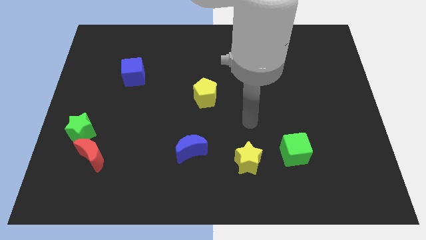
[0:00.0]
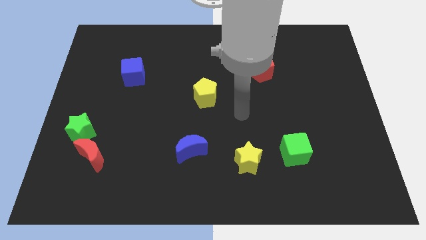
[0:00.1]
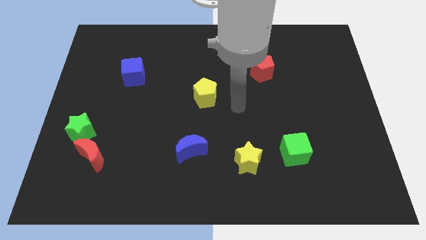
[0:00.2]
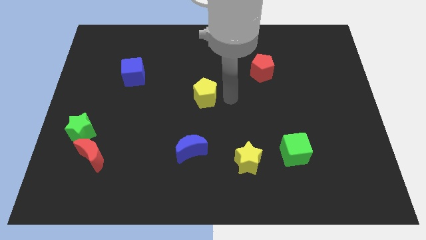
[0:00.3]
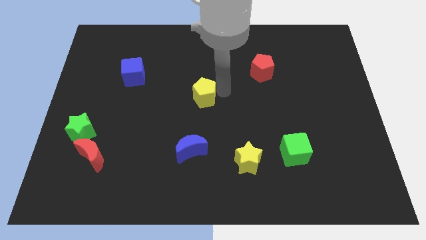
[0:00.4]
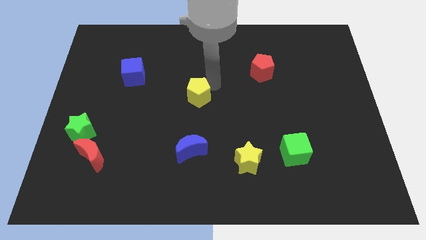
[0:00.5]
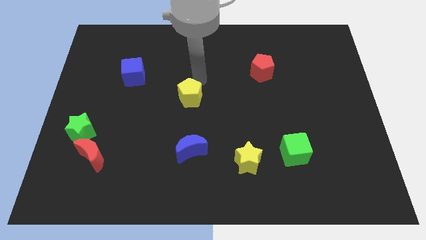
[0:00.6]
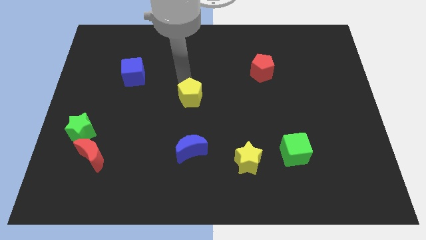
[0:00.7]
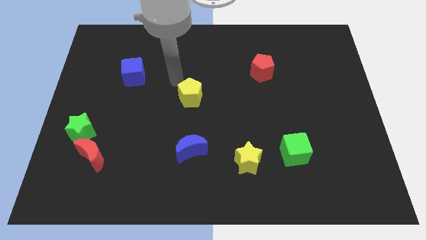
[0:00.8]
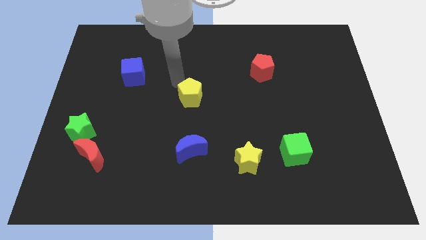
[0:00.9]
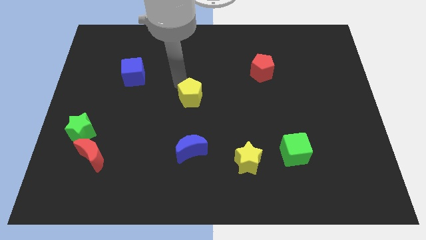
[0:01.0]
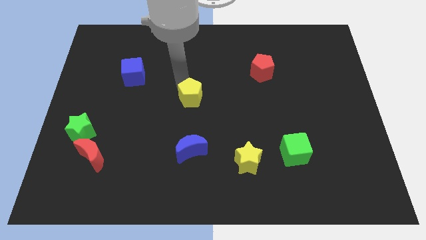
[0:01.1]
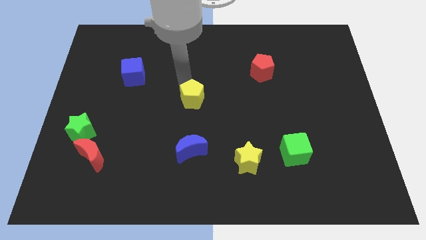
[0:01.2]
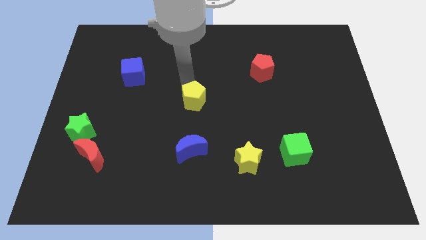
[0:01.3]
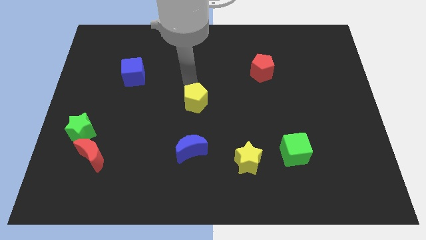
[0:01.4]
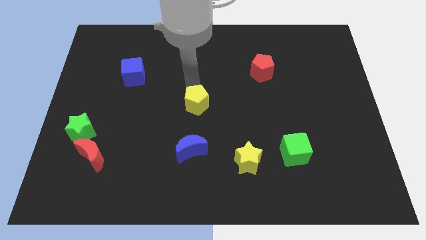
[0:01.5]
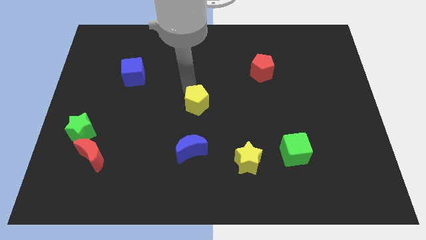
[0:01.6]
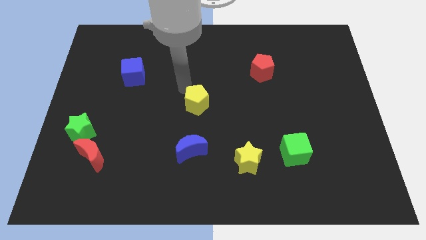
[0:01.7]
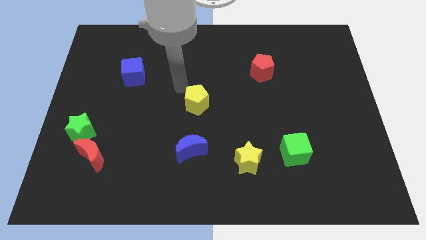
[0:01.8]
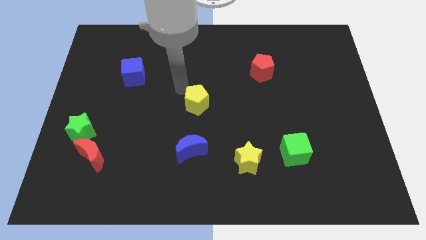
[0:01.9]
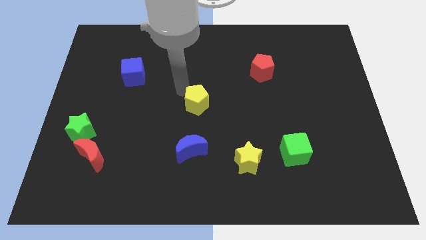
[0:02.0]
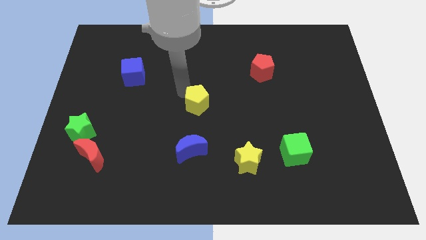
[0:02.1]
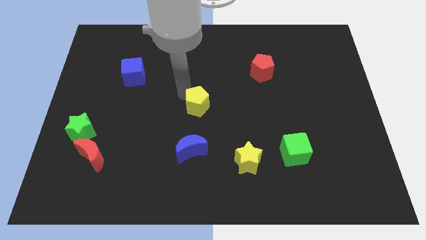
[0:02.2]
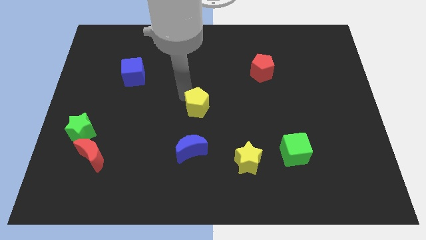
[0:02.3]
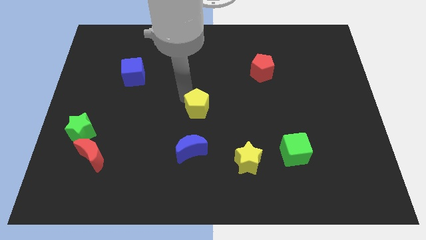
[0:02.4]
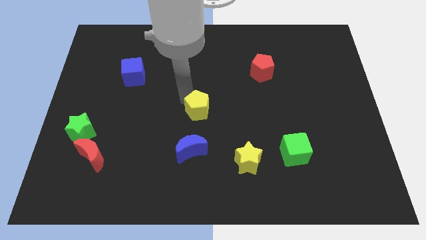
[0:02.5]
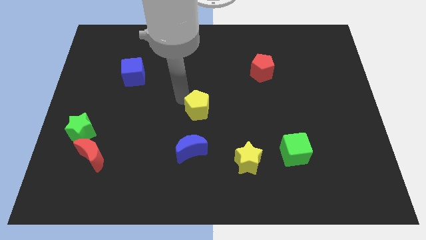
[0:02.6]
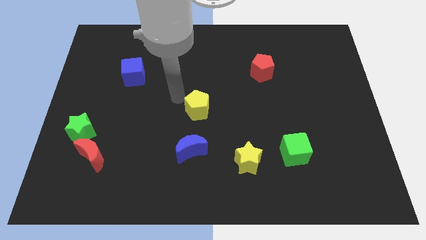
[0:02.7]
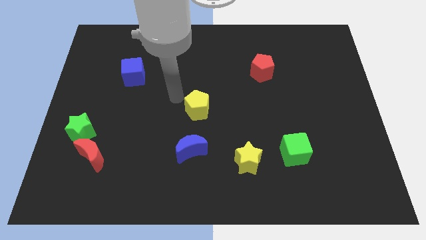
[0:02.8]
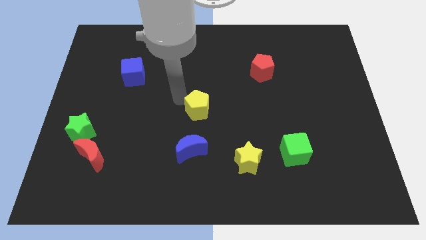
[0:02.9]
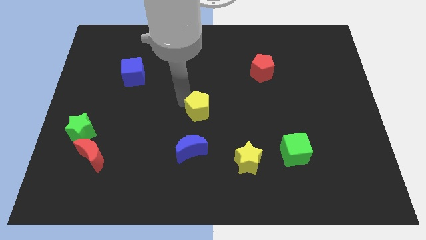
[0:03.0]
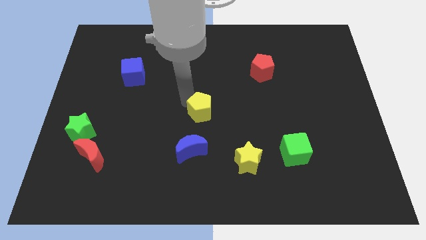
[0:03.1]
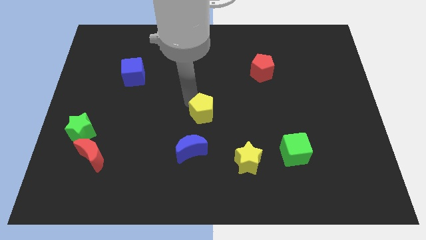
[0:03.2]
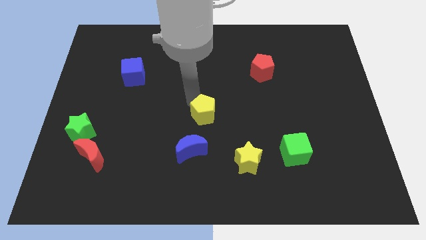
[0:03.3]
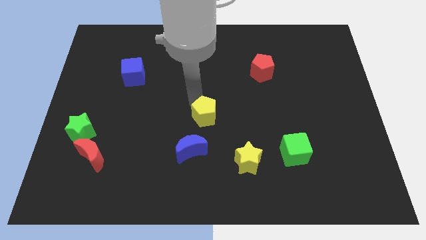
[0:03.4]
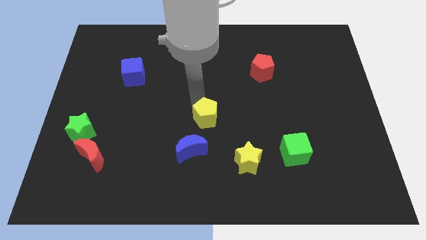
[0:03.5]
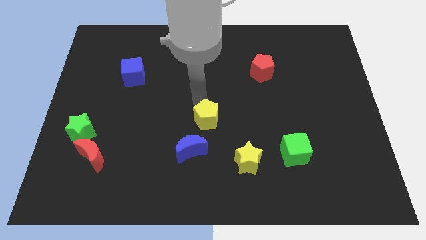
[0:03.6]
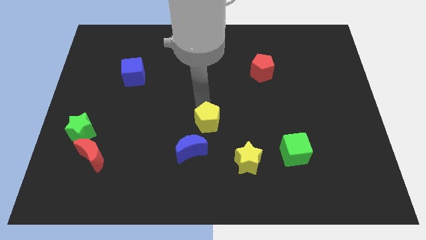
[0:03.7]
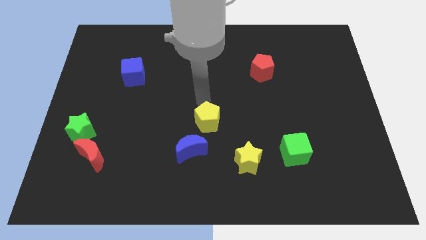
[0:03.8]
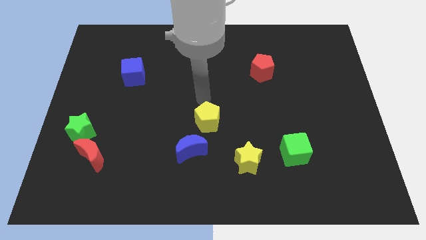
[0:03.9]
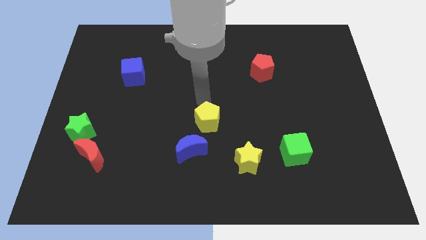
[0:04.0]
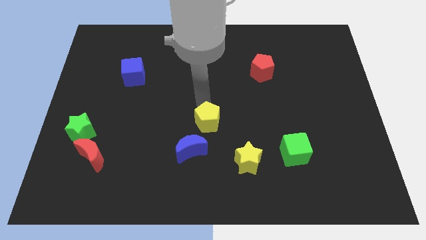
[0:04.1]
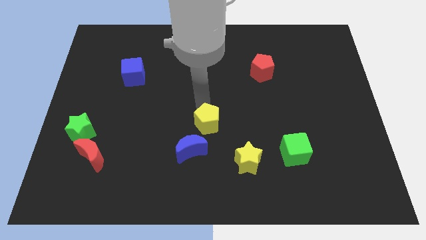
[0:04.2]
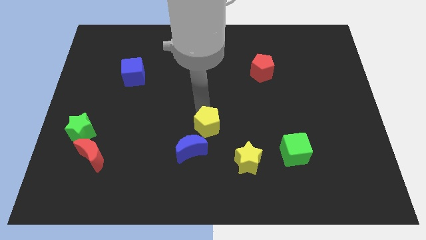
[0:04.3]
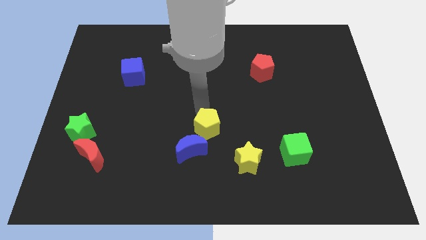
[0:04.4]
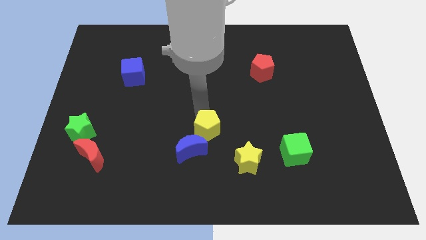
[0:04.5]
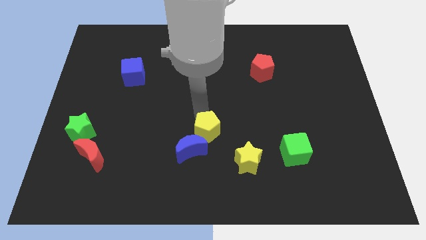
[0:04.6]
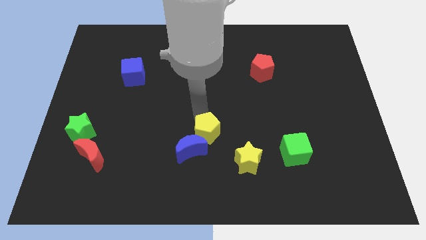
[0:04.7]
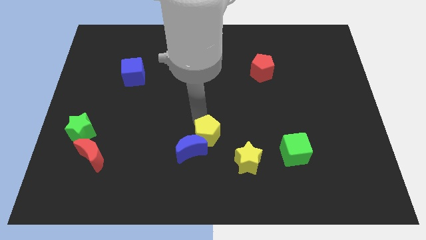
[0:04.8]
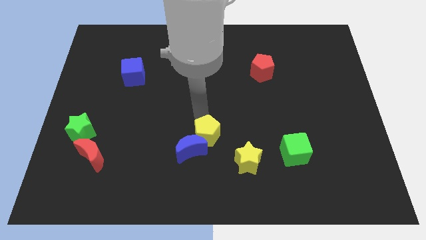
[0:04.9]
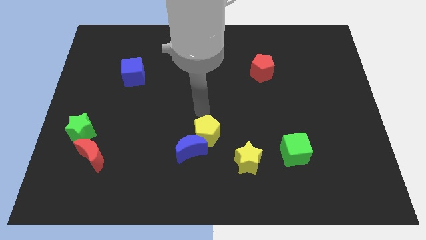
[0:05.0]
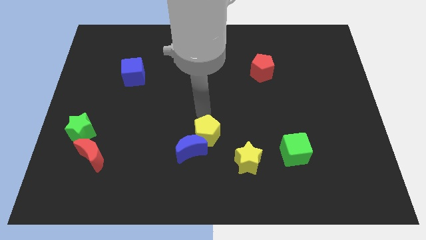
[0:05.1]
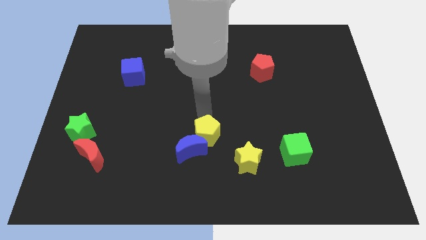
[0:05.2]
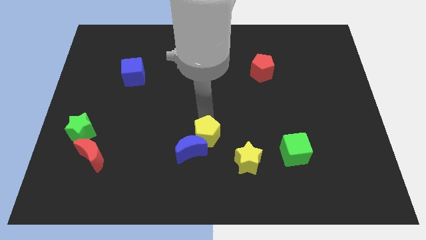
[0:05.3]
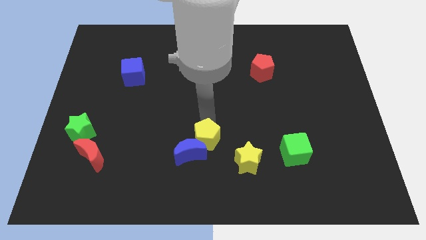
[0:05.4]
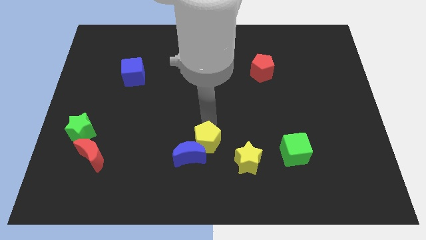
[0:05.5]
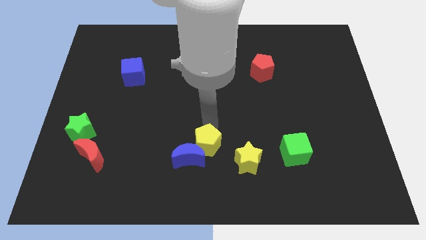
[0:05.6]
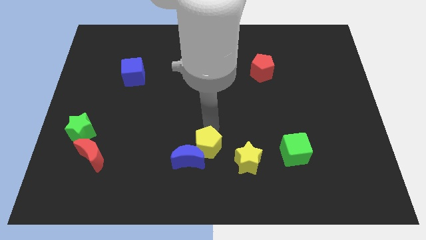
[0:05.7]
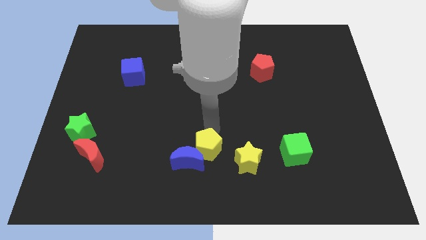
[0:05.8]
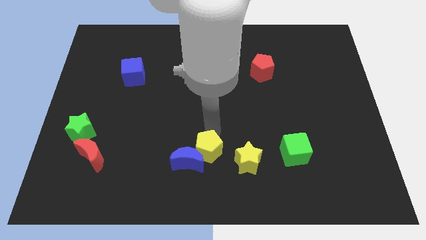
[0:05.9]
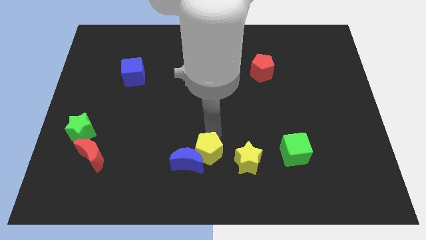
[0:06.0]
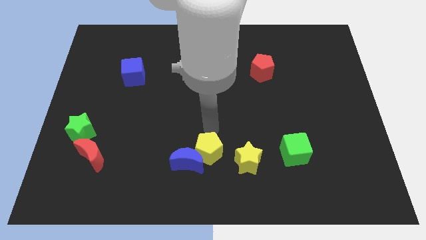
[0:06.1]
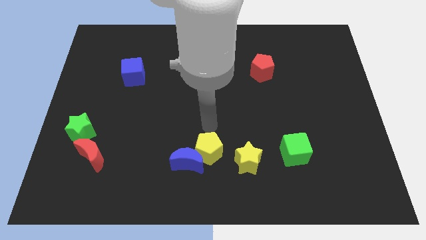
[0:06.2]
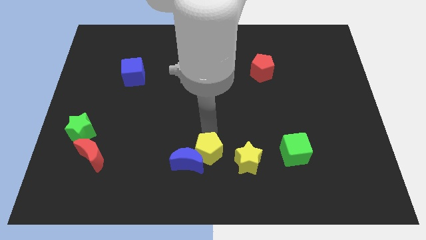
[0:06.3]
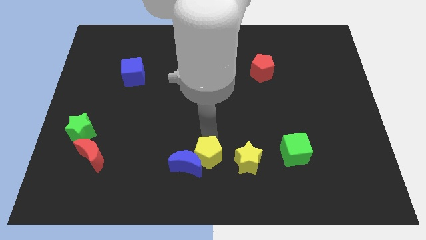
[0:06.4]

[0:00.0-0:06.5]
move the yellow pentagon to the bottom
